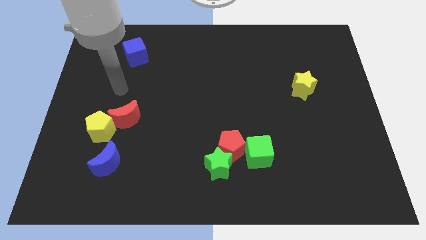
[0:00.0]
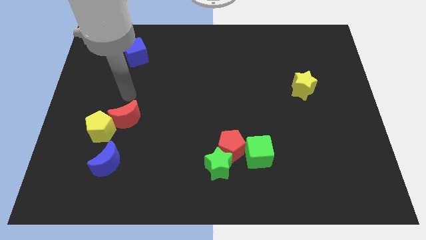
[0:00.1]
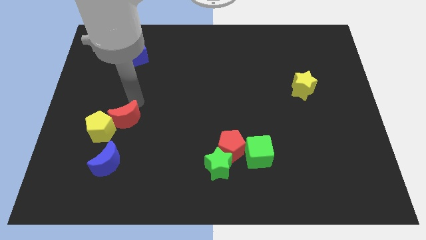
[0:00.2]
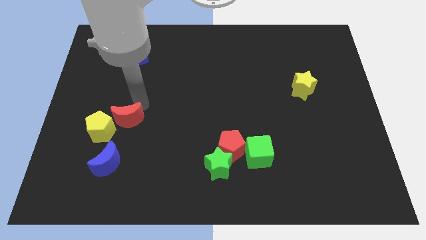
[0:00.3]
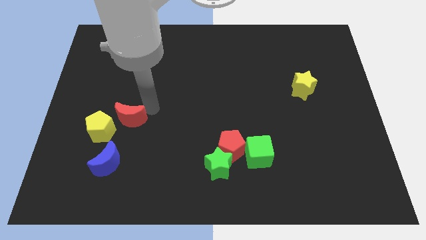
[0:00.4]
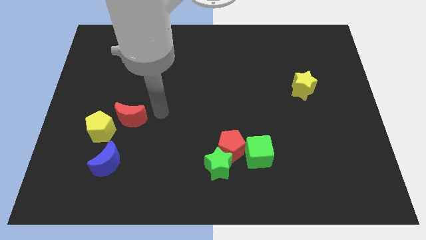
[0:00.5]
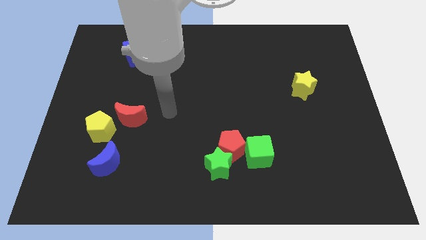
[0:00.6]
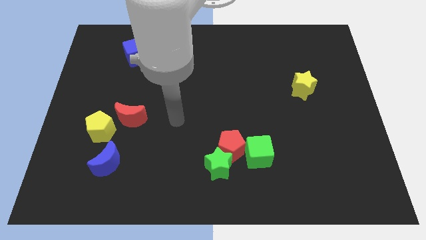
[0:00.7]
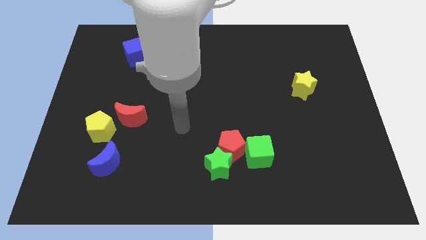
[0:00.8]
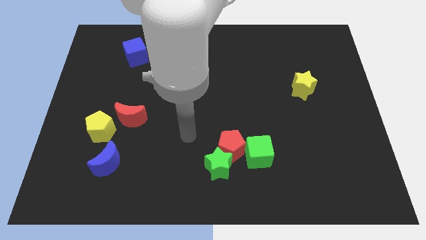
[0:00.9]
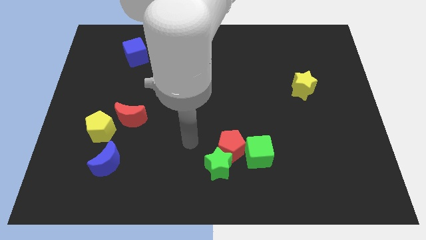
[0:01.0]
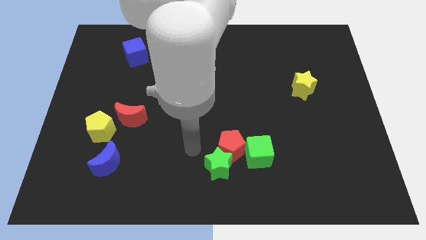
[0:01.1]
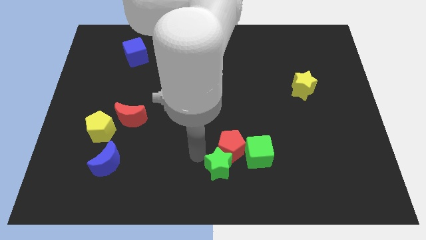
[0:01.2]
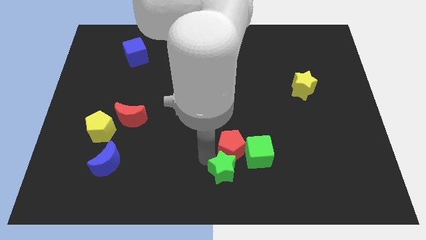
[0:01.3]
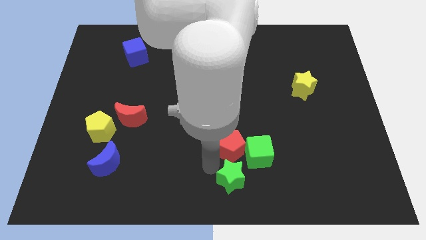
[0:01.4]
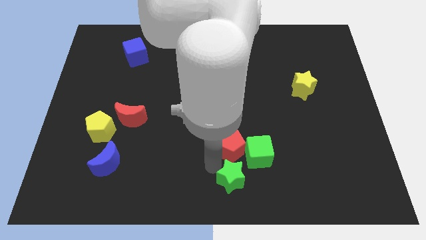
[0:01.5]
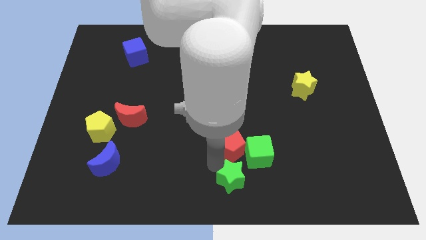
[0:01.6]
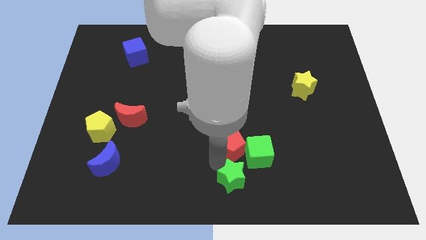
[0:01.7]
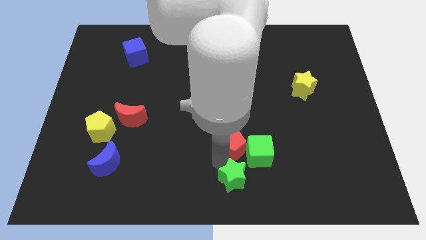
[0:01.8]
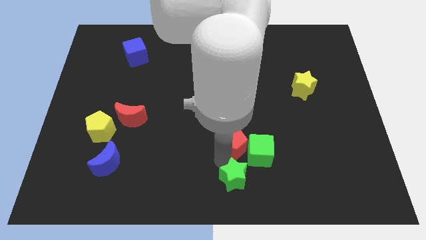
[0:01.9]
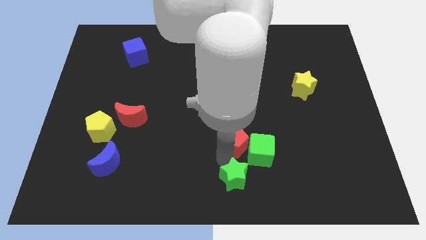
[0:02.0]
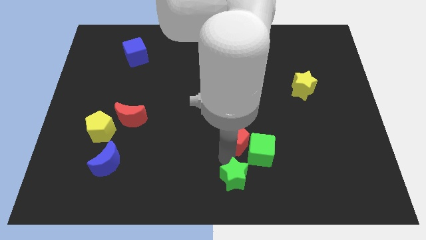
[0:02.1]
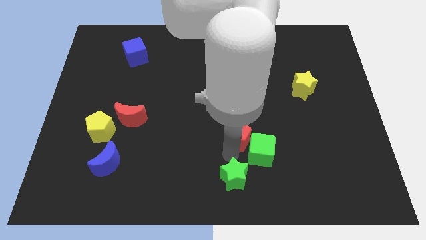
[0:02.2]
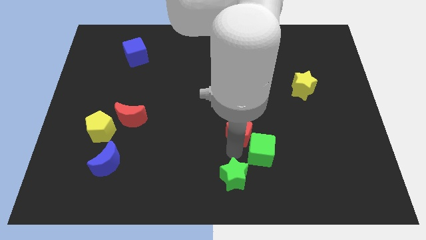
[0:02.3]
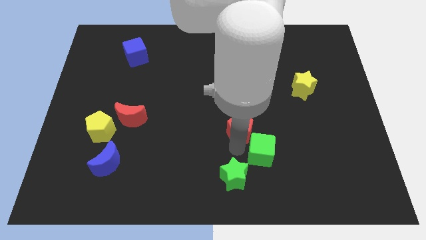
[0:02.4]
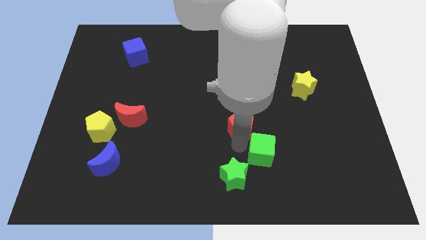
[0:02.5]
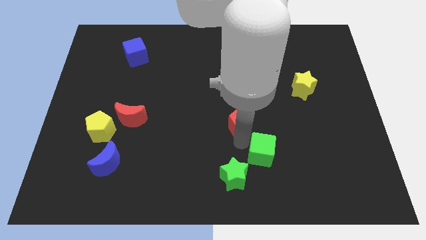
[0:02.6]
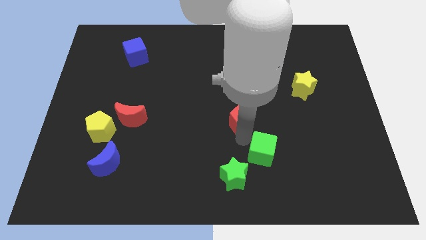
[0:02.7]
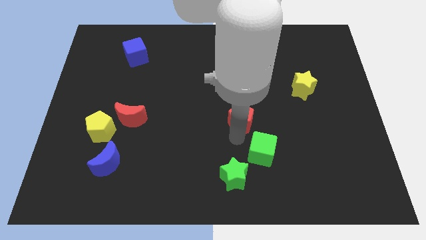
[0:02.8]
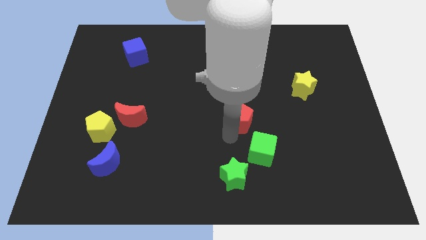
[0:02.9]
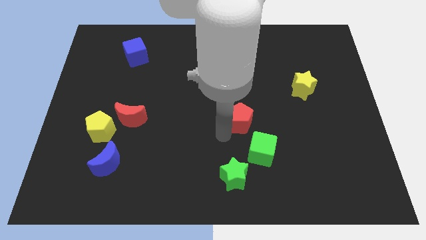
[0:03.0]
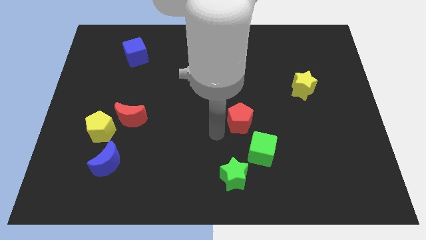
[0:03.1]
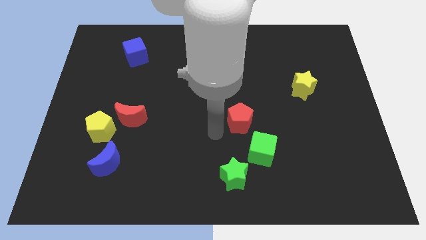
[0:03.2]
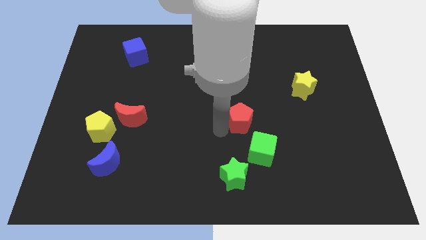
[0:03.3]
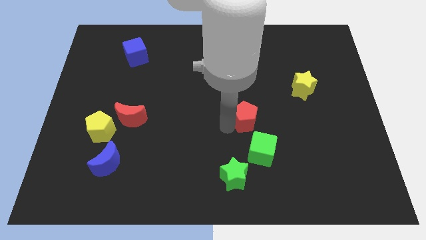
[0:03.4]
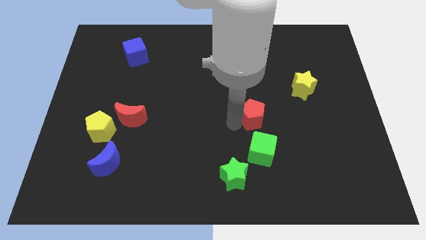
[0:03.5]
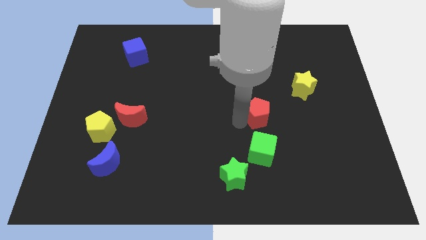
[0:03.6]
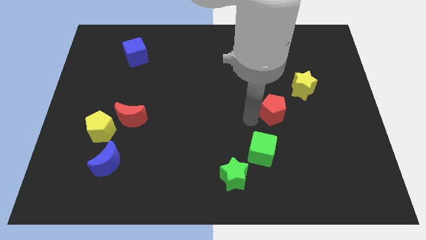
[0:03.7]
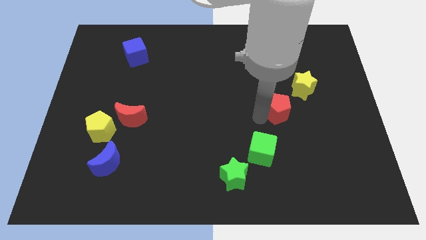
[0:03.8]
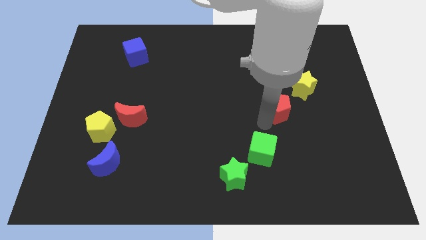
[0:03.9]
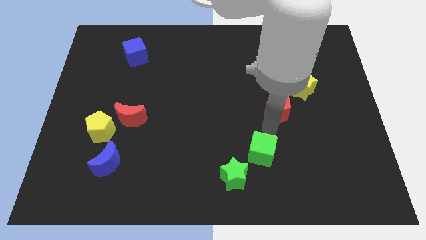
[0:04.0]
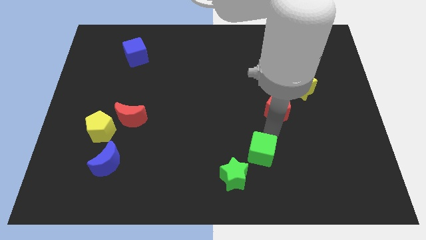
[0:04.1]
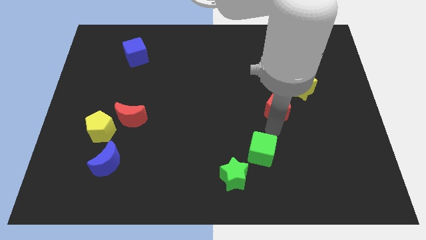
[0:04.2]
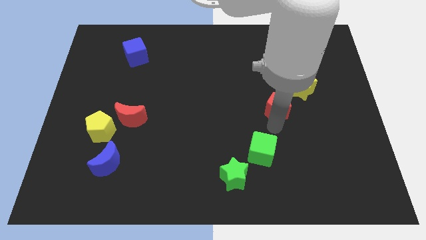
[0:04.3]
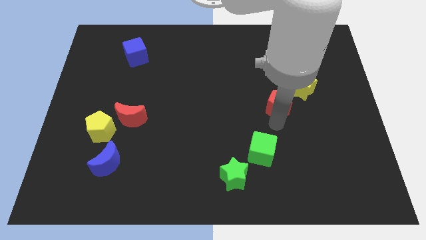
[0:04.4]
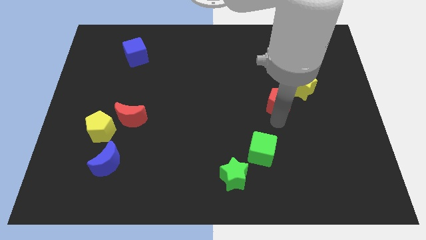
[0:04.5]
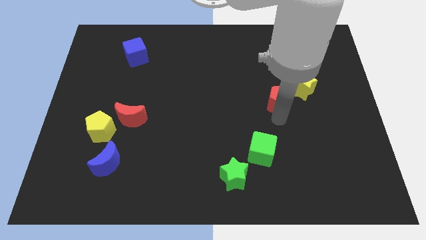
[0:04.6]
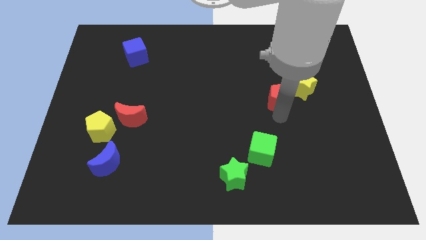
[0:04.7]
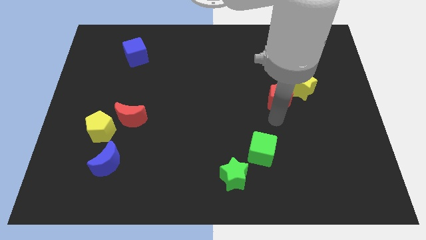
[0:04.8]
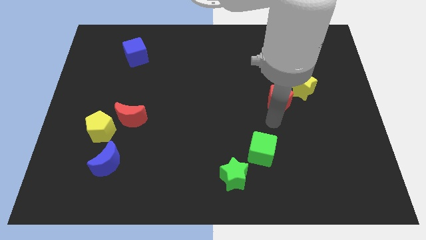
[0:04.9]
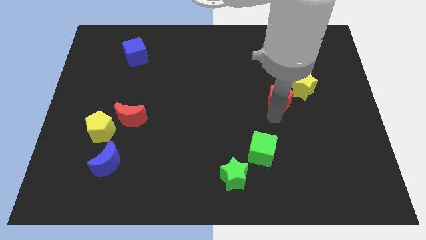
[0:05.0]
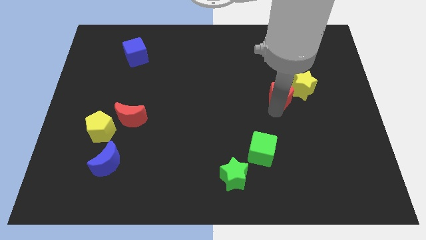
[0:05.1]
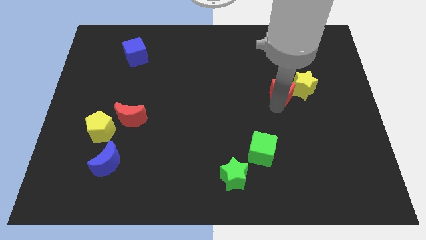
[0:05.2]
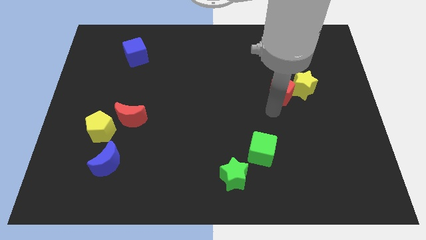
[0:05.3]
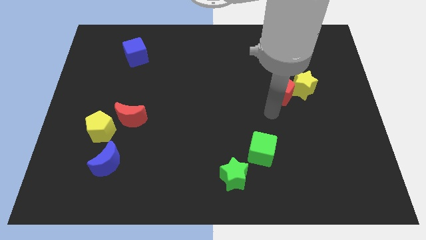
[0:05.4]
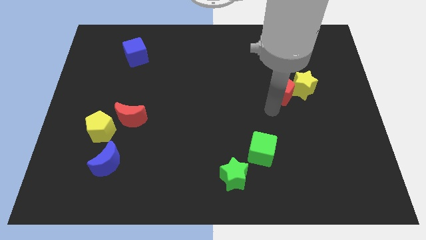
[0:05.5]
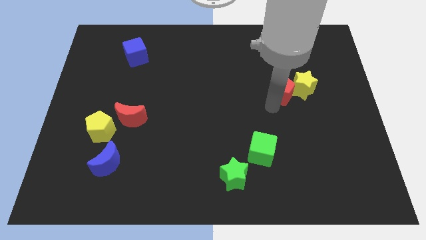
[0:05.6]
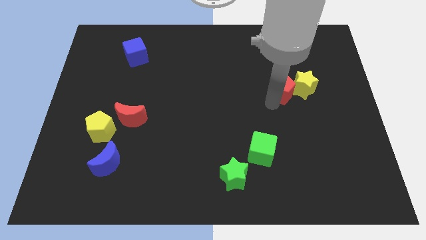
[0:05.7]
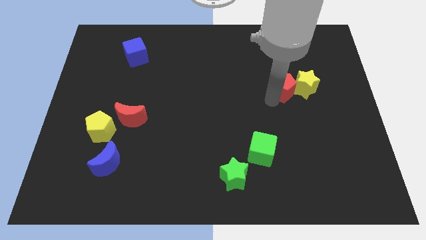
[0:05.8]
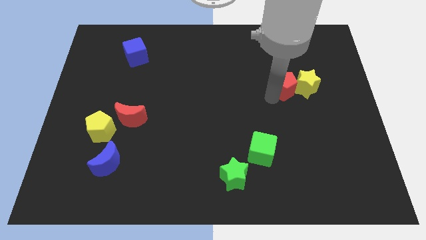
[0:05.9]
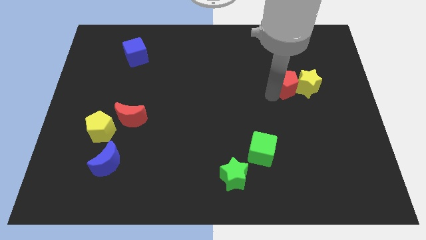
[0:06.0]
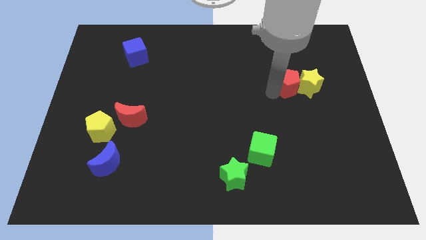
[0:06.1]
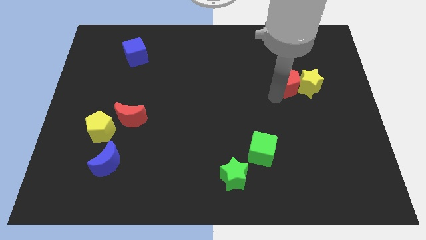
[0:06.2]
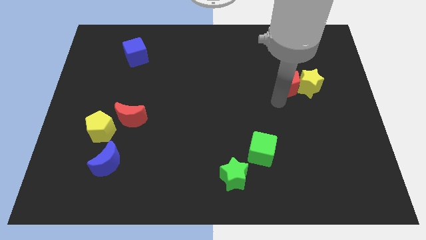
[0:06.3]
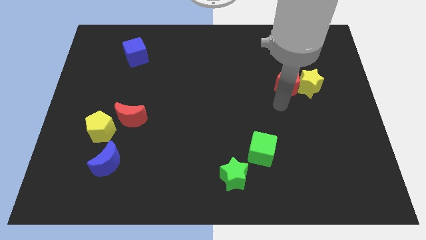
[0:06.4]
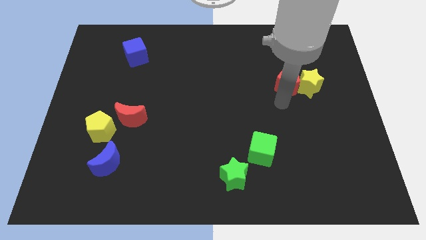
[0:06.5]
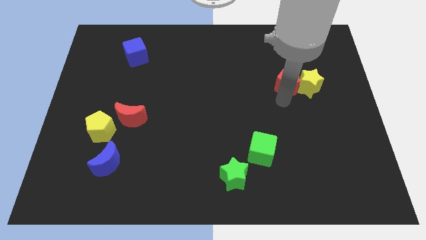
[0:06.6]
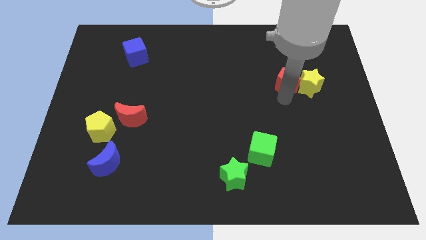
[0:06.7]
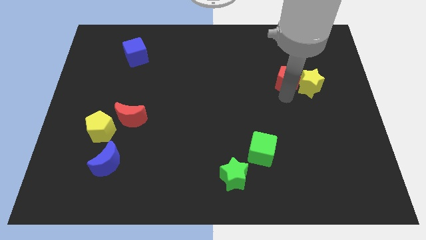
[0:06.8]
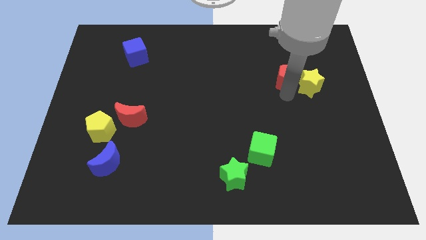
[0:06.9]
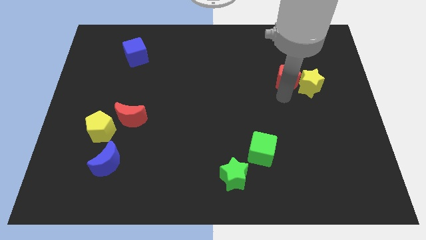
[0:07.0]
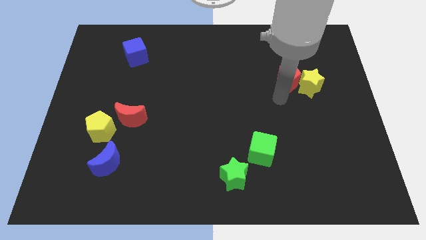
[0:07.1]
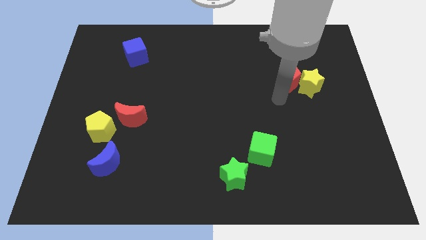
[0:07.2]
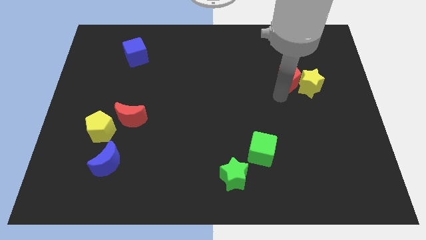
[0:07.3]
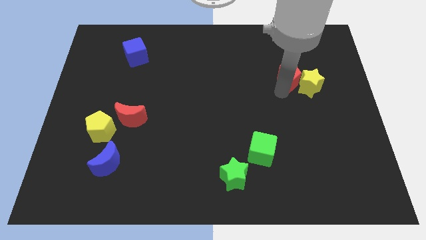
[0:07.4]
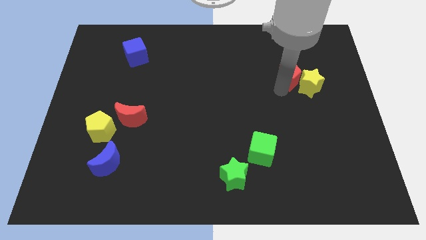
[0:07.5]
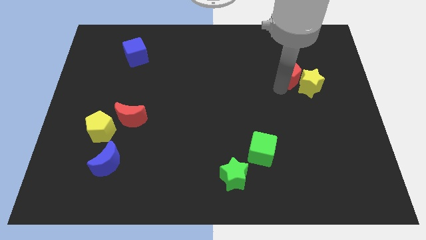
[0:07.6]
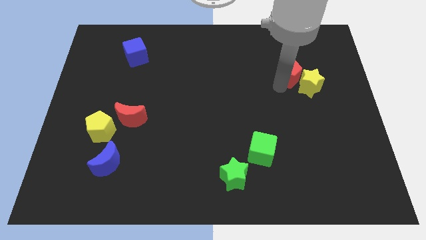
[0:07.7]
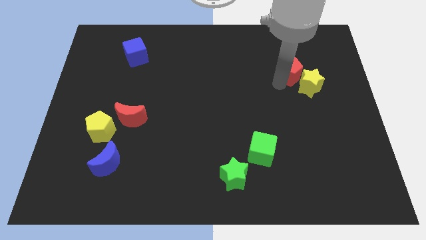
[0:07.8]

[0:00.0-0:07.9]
move the red pentagon to the top of the yellow star
